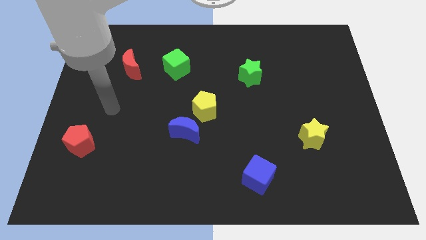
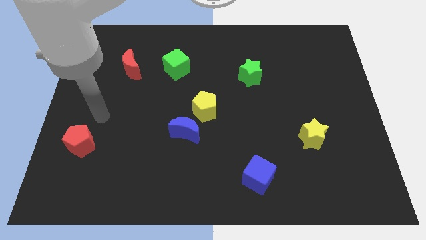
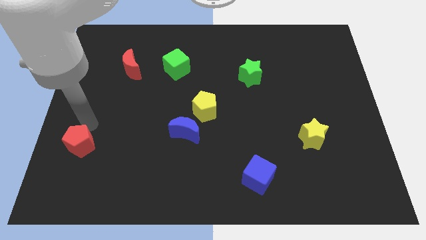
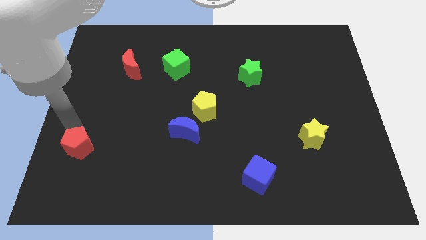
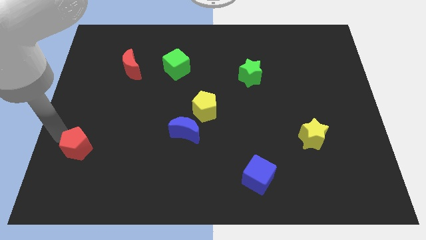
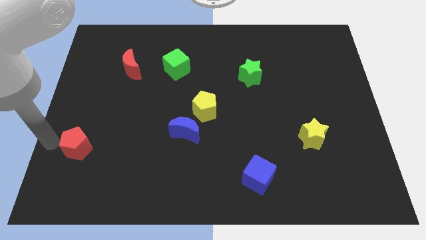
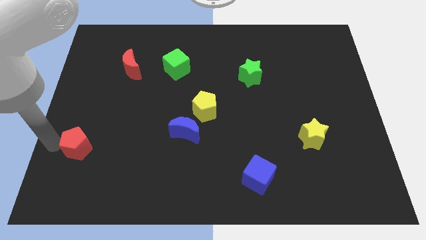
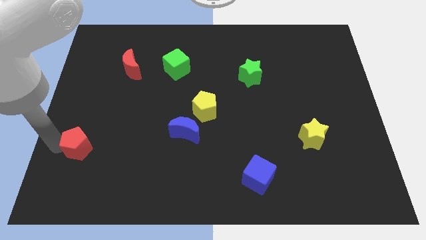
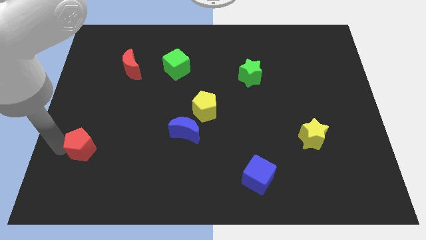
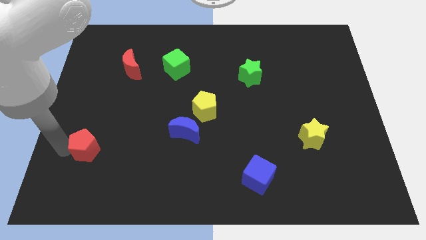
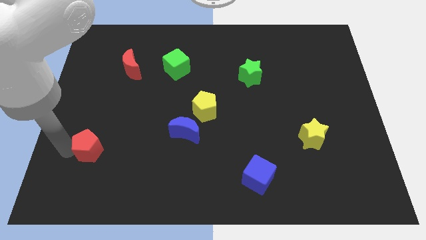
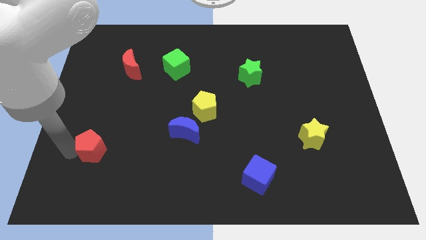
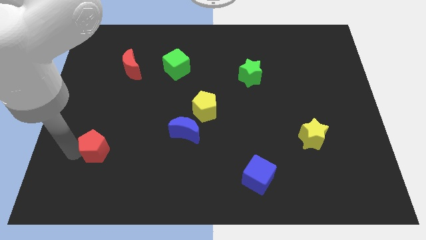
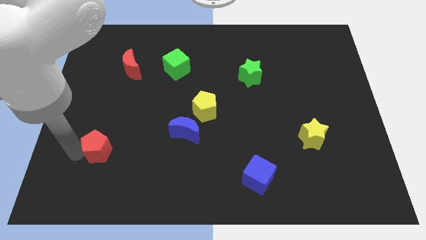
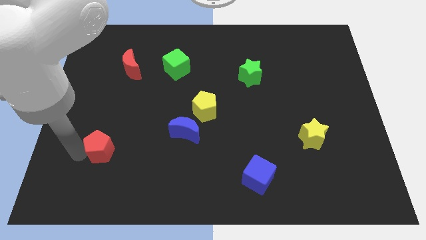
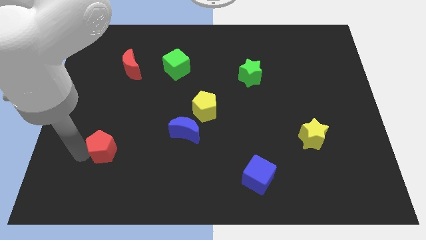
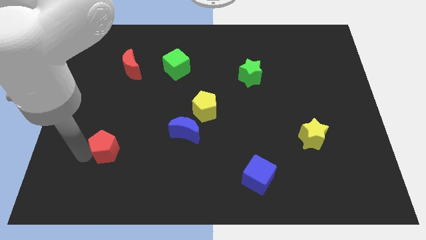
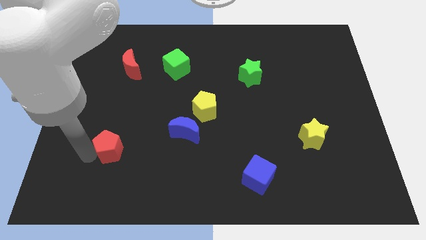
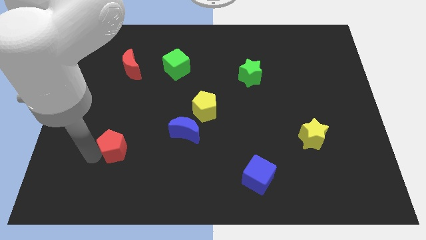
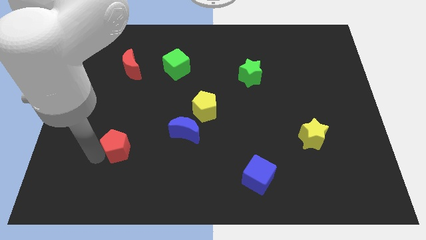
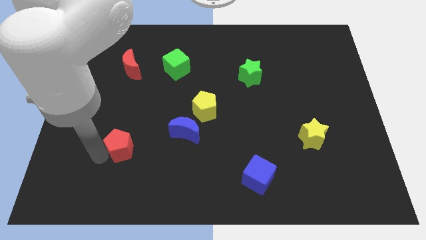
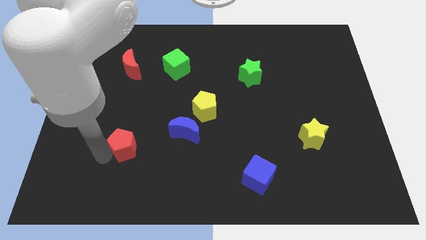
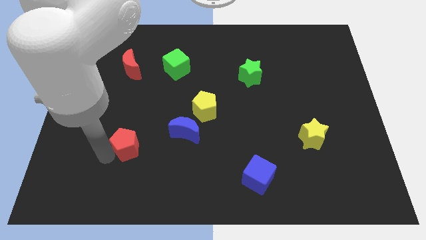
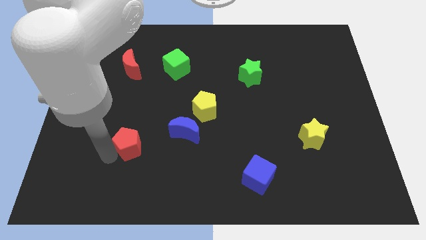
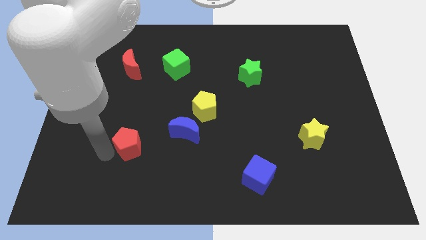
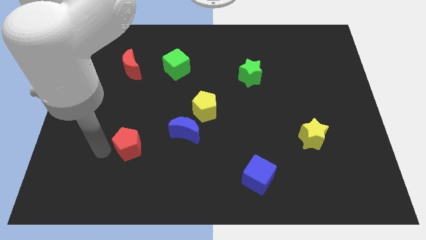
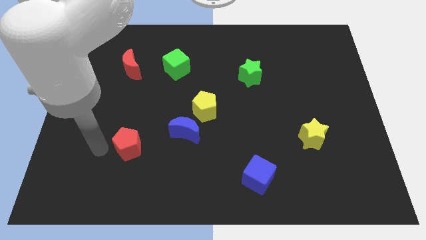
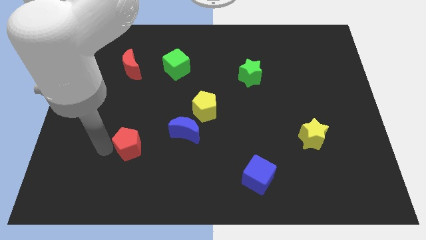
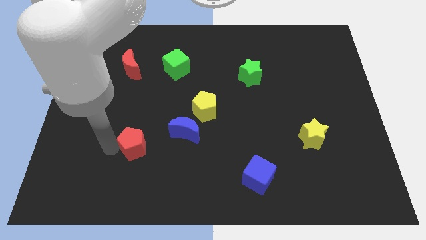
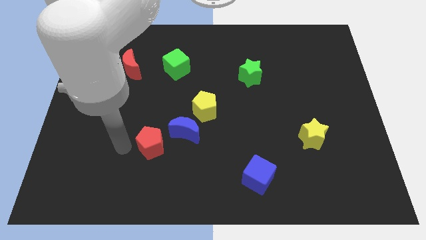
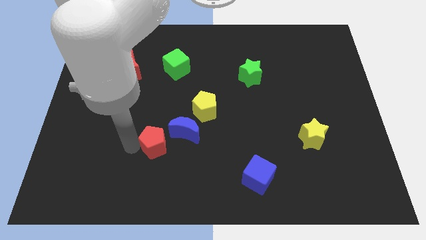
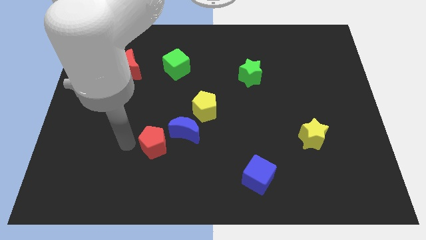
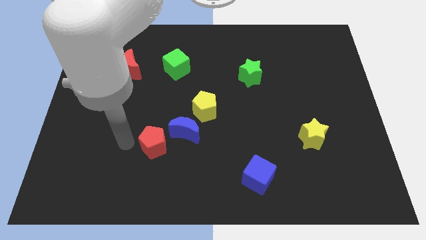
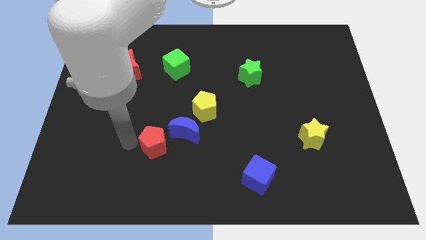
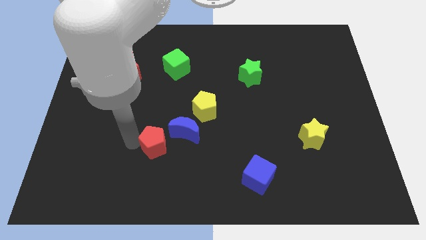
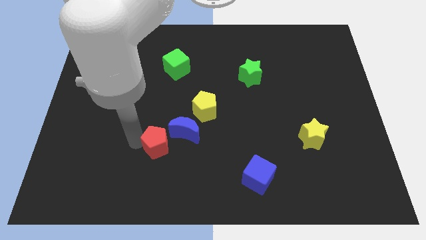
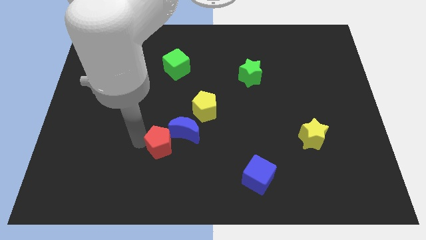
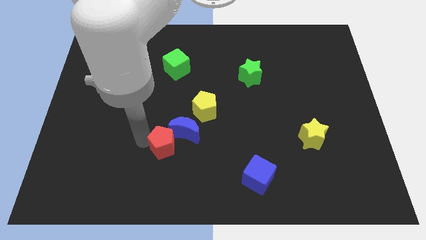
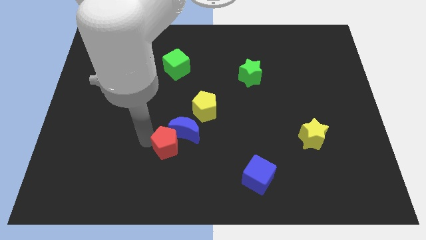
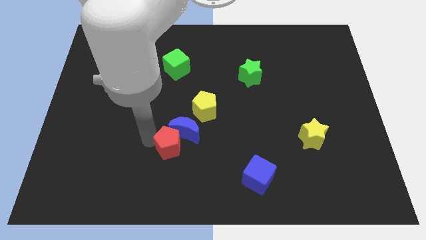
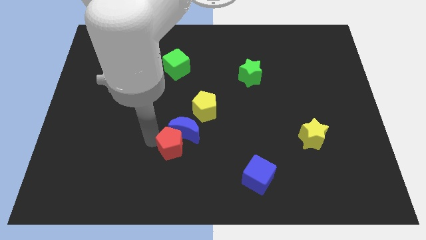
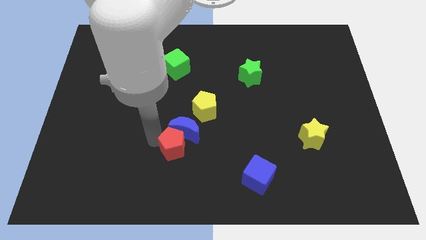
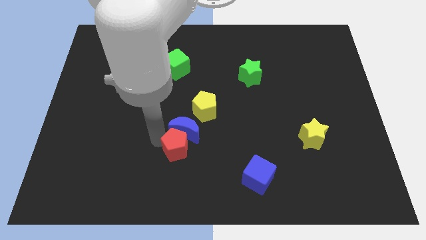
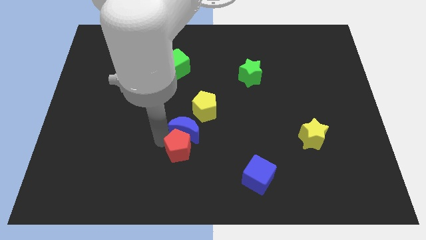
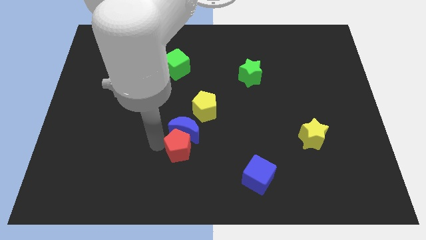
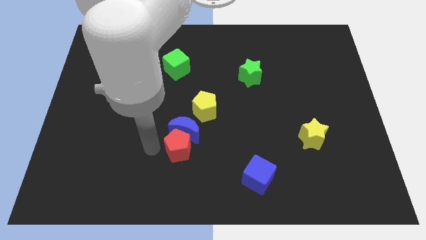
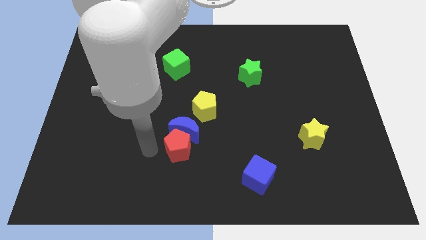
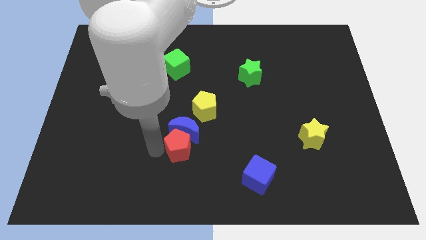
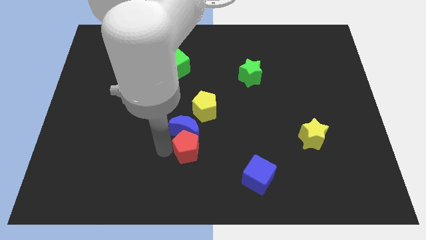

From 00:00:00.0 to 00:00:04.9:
move the red pentagon below the yellow pentagon

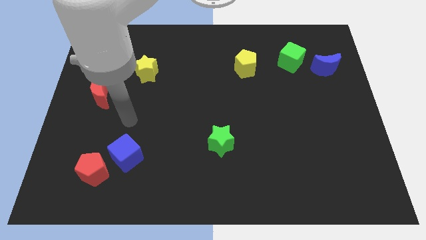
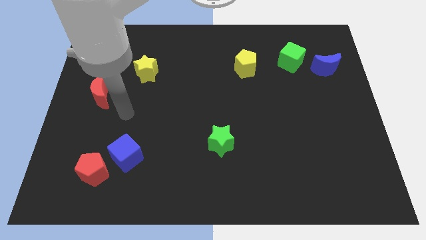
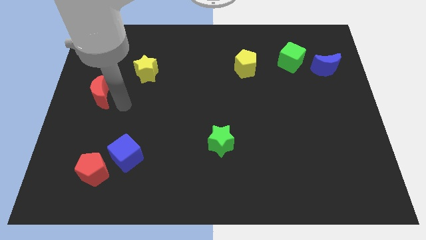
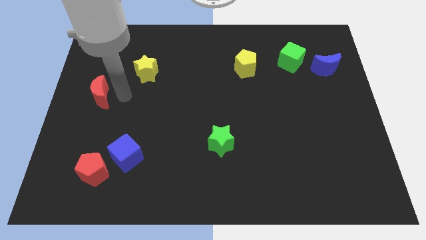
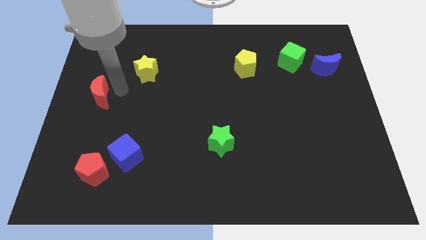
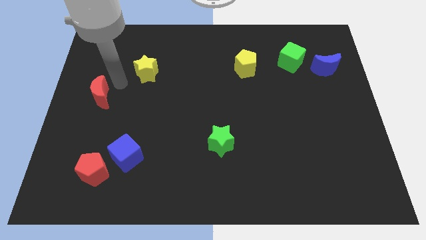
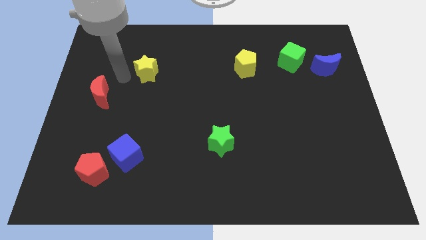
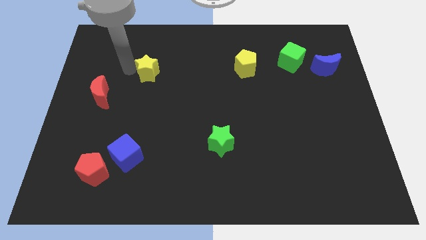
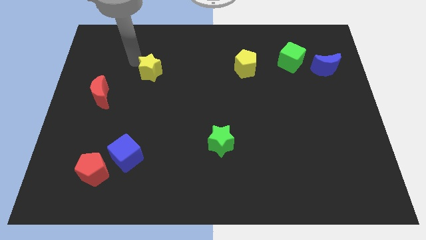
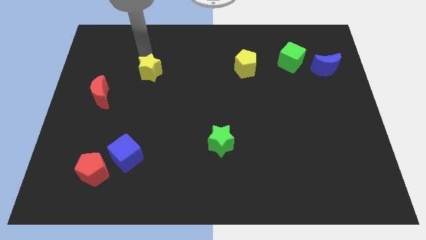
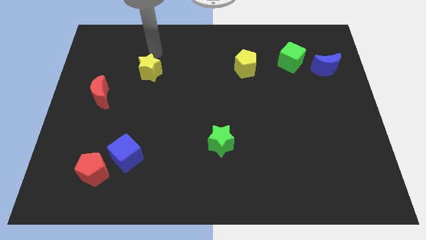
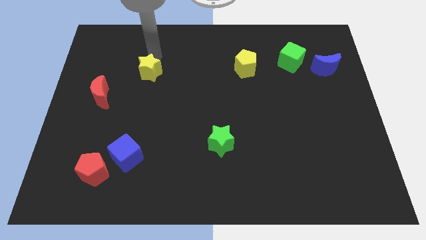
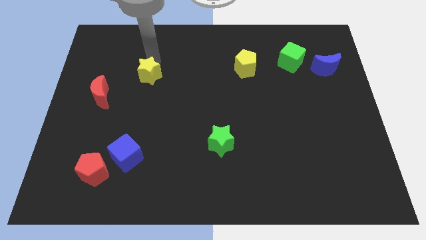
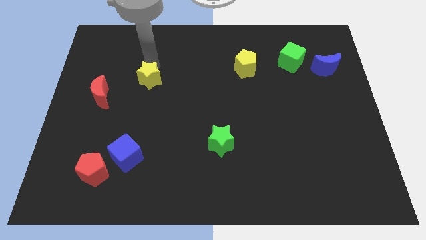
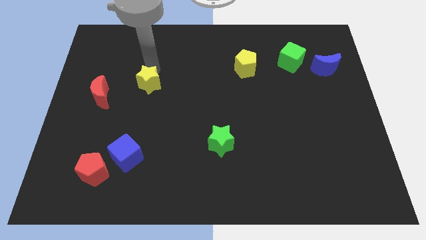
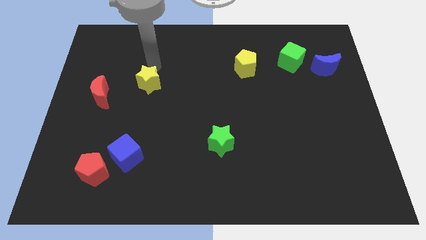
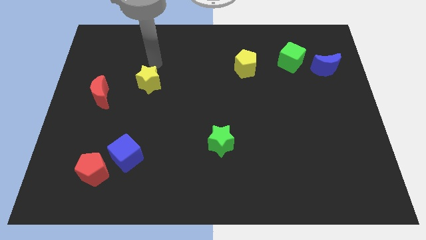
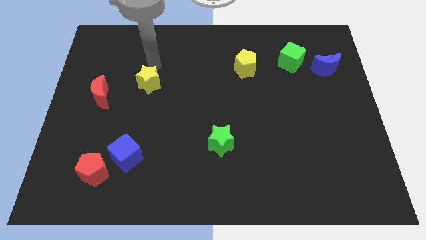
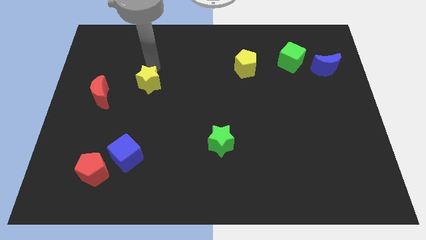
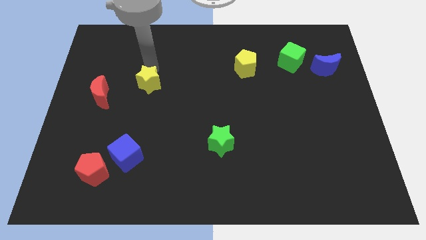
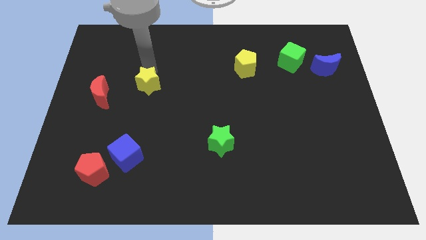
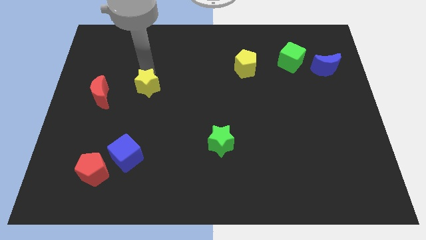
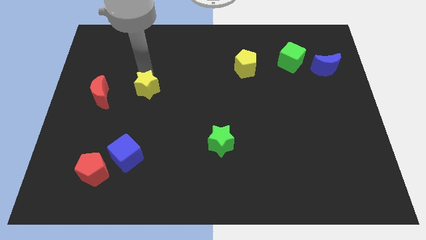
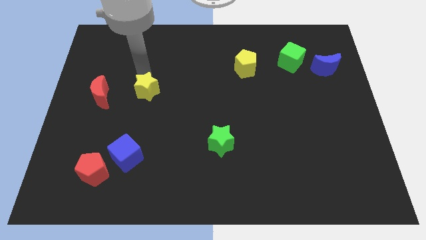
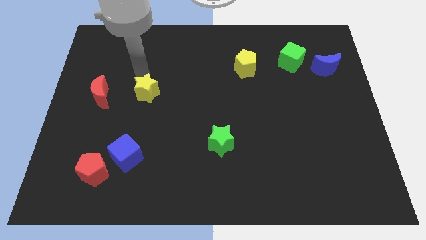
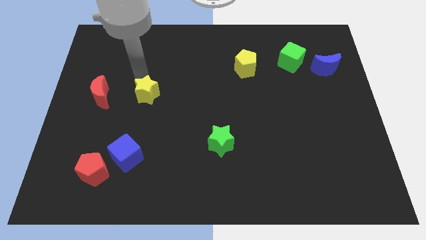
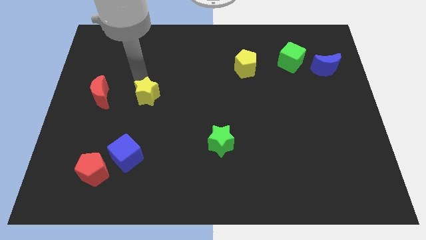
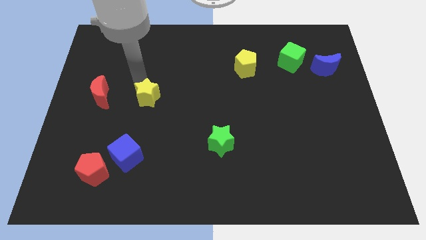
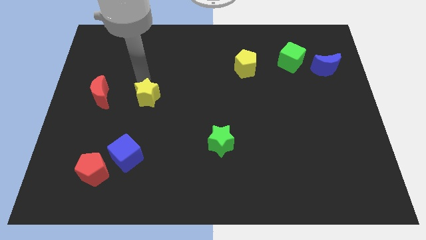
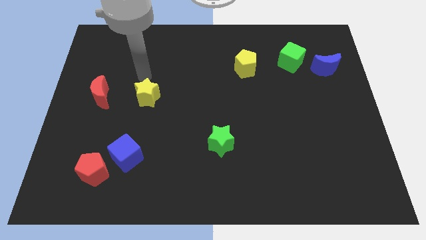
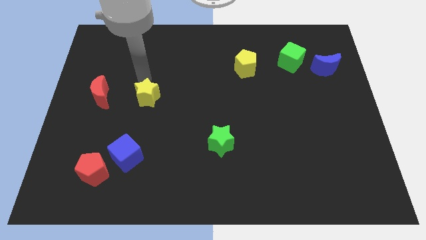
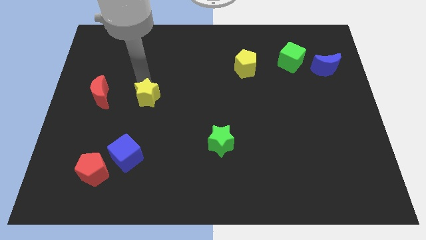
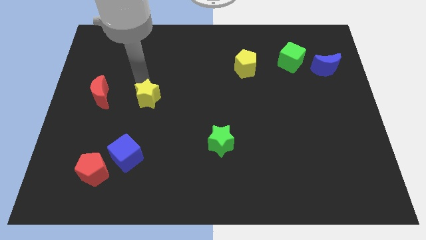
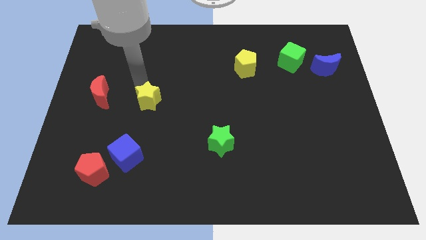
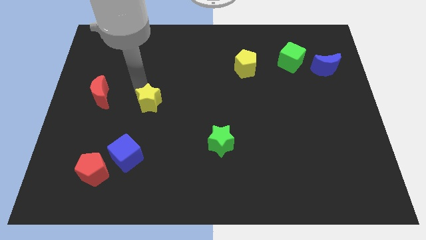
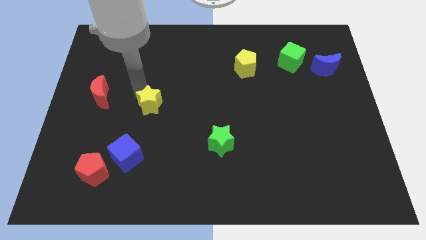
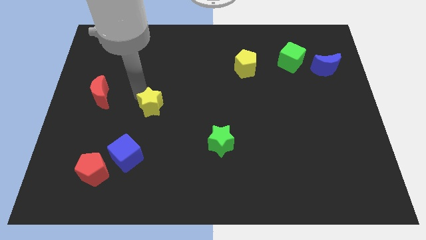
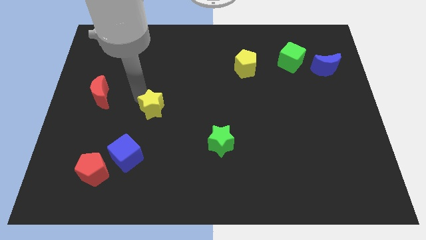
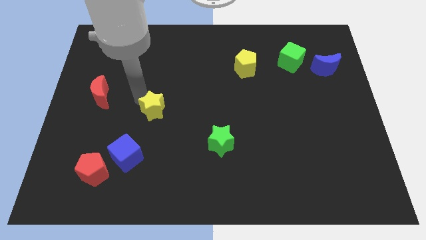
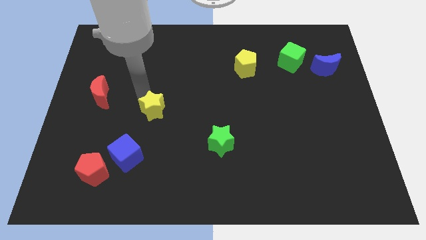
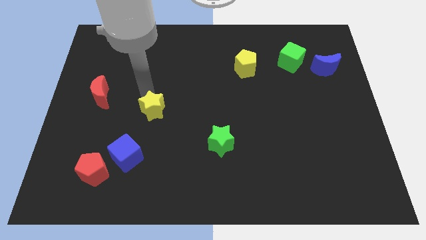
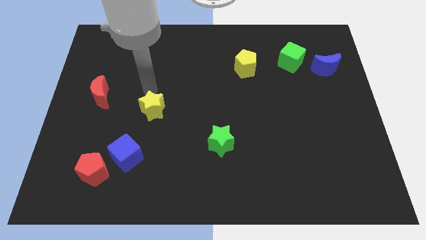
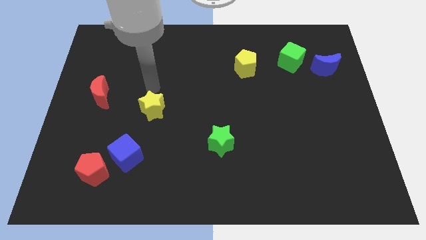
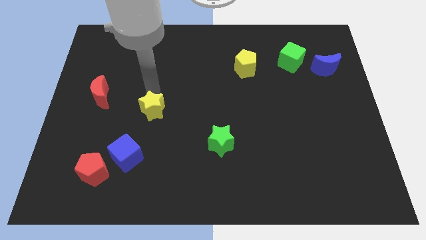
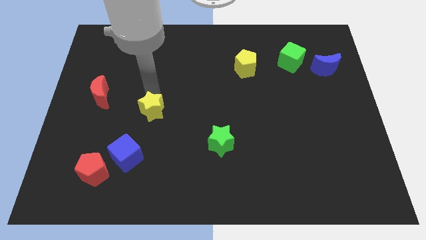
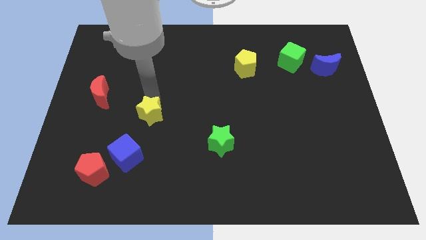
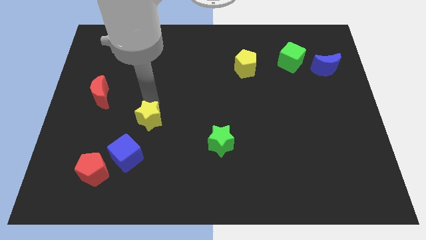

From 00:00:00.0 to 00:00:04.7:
slide the yellow star diagonally up and to the right of the blue cube
